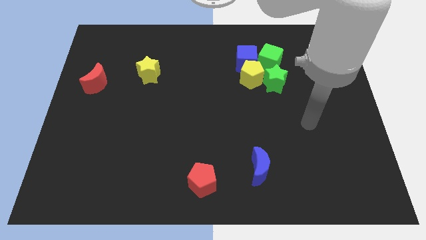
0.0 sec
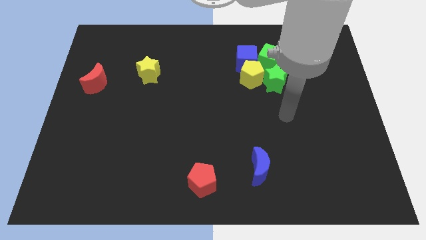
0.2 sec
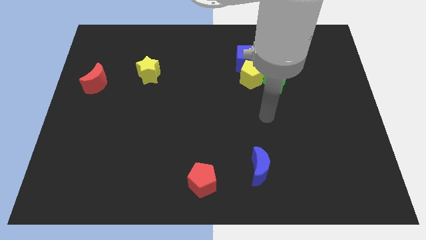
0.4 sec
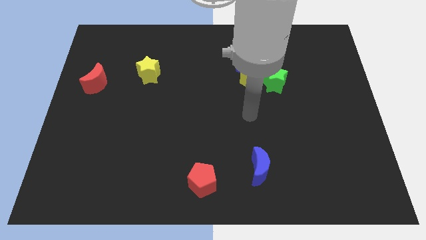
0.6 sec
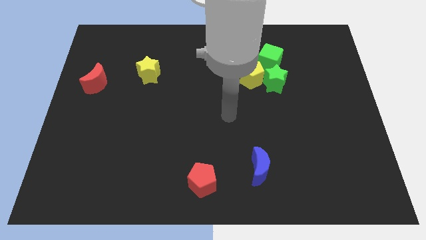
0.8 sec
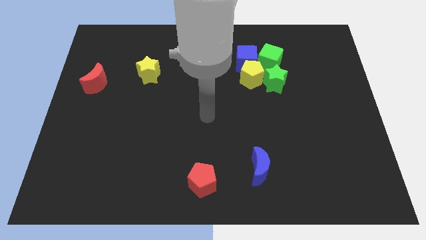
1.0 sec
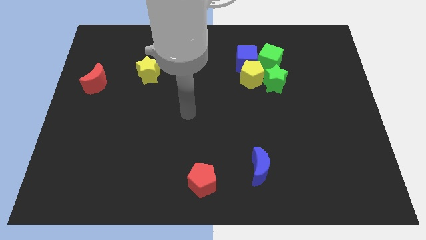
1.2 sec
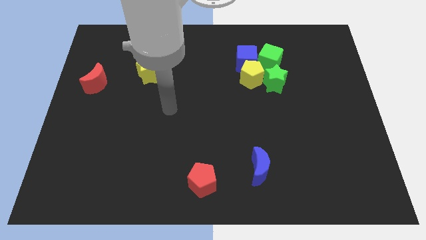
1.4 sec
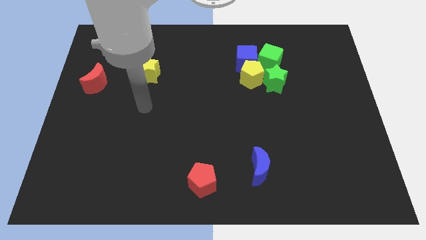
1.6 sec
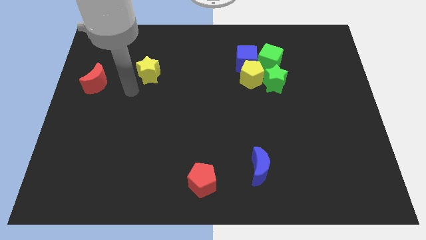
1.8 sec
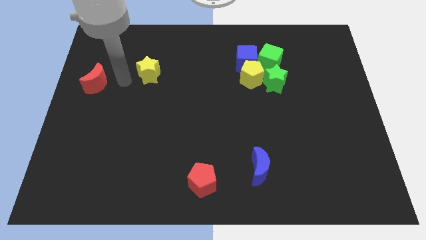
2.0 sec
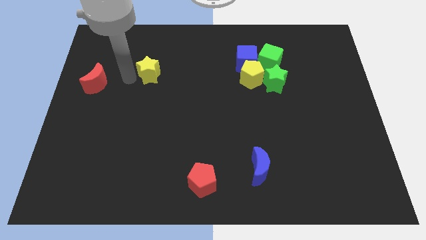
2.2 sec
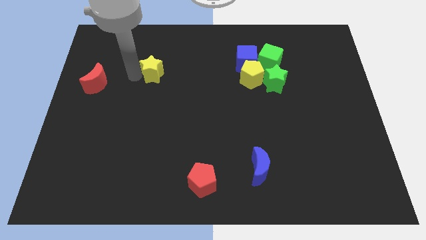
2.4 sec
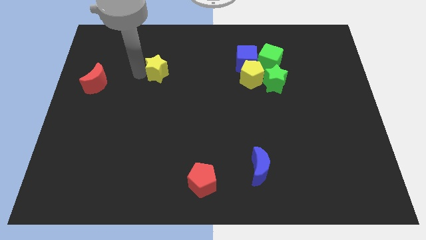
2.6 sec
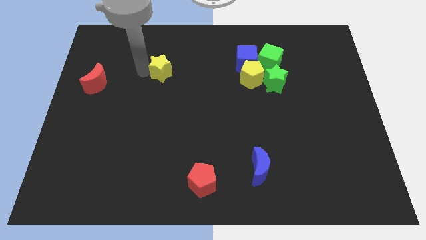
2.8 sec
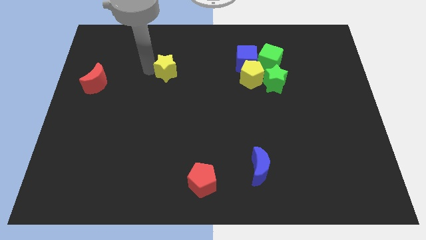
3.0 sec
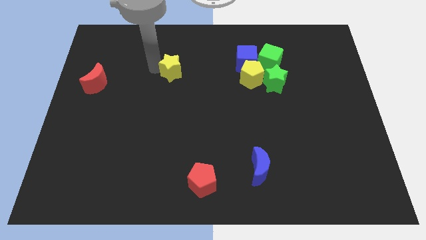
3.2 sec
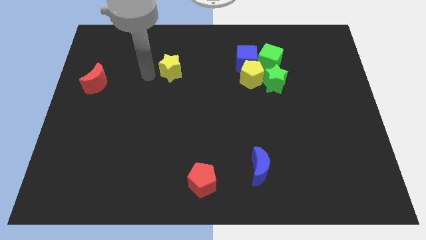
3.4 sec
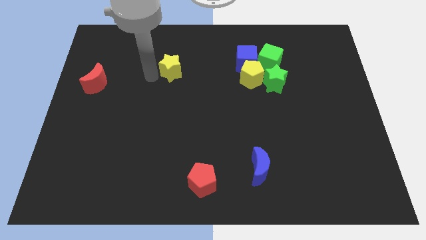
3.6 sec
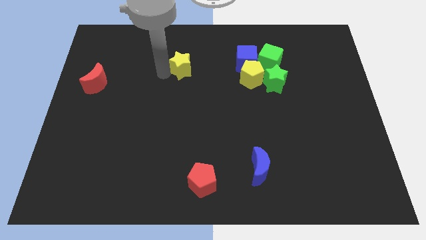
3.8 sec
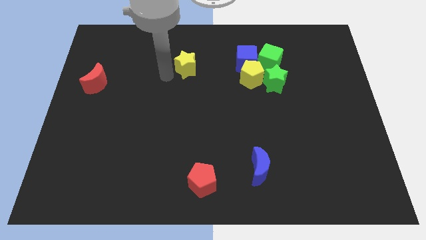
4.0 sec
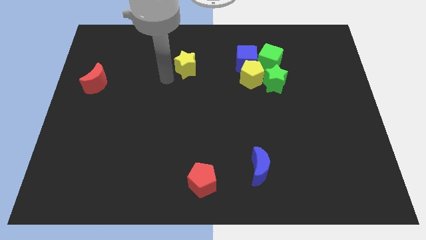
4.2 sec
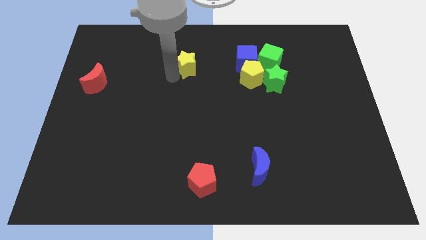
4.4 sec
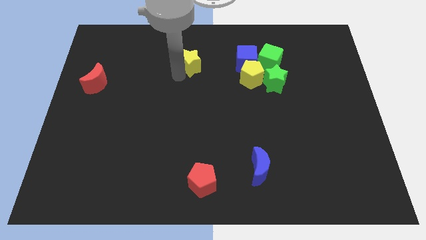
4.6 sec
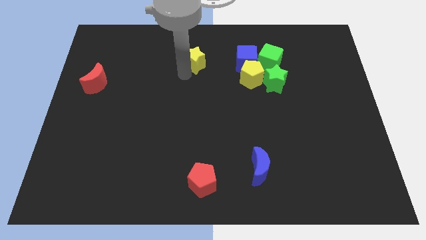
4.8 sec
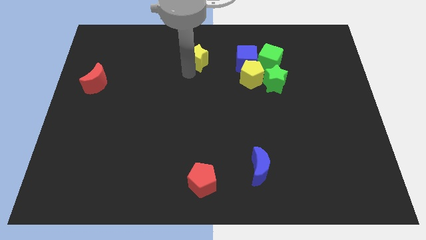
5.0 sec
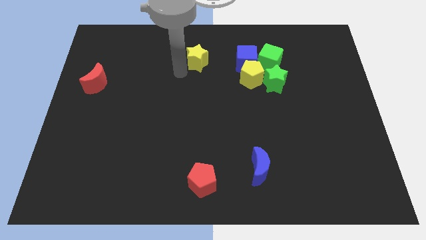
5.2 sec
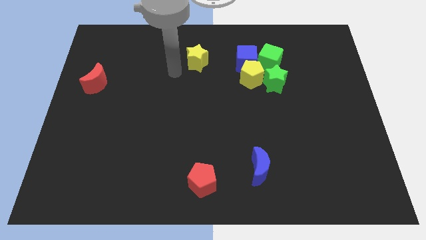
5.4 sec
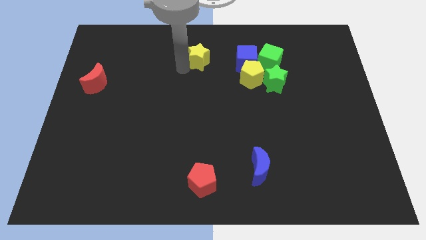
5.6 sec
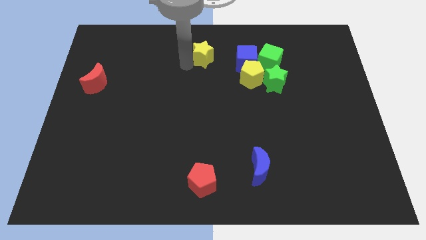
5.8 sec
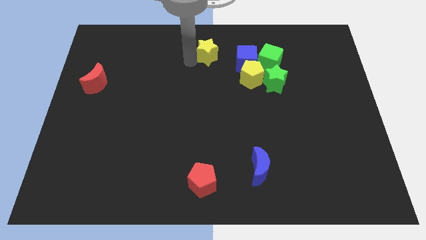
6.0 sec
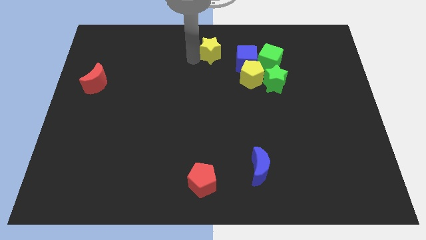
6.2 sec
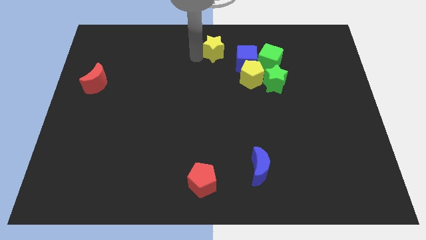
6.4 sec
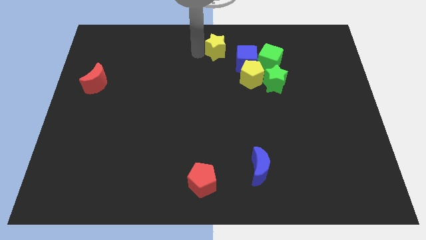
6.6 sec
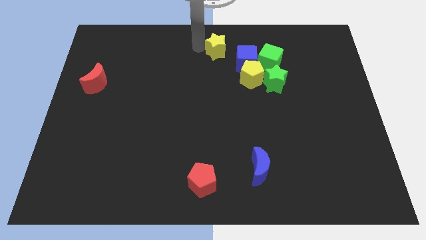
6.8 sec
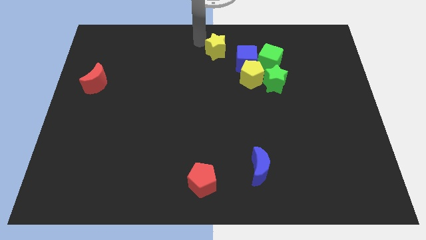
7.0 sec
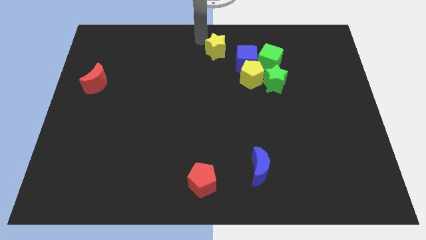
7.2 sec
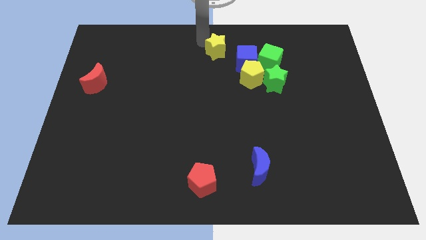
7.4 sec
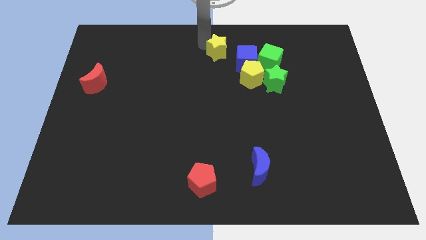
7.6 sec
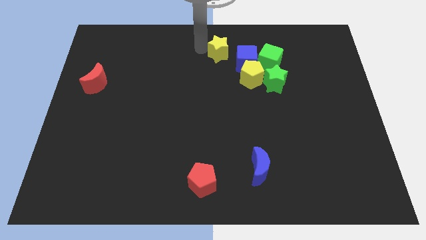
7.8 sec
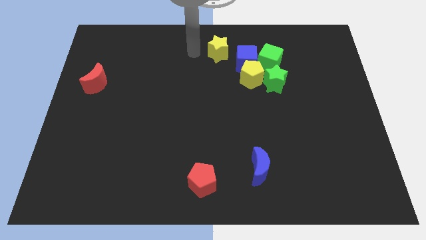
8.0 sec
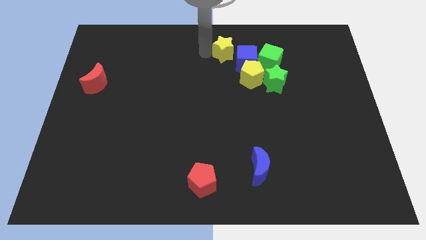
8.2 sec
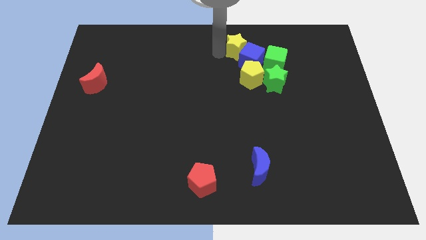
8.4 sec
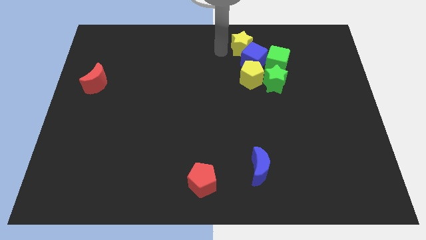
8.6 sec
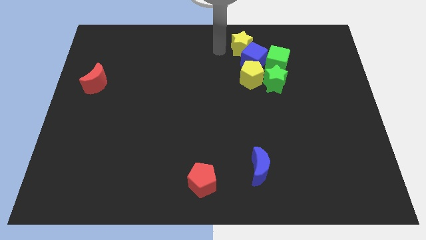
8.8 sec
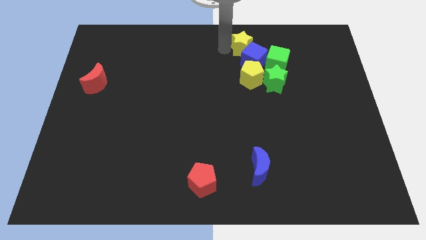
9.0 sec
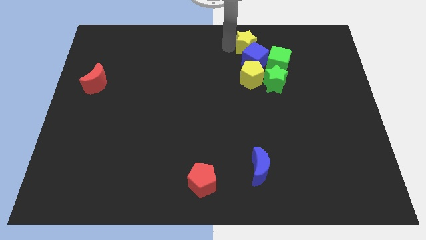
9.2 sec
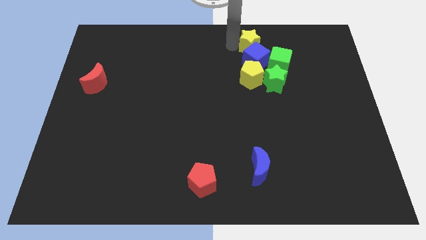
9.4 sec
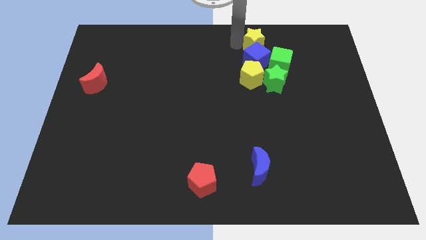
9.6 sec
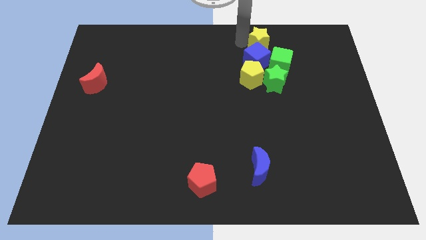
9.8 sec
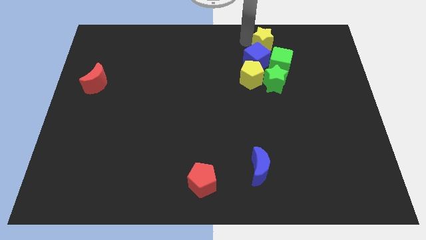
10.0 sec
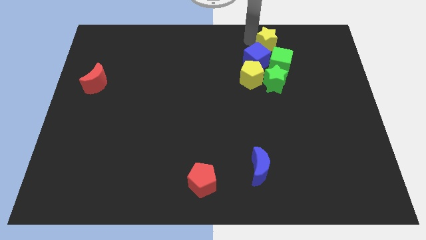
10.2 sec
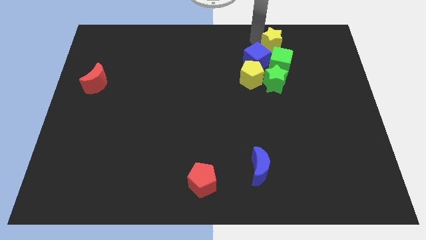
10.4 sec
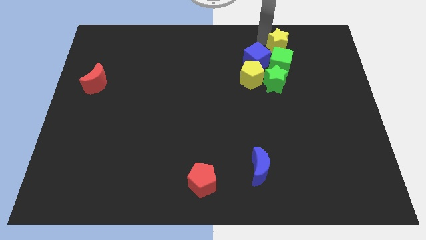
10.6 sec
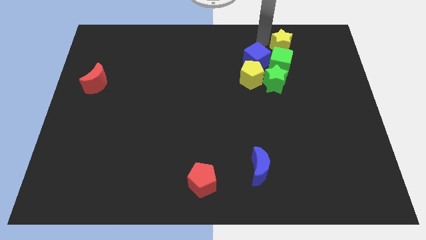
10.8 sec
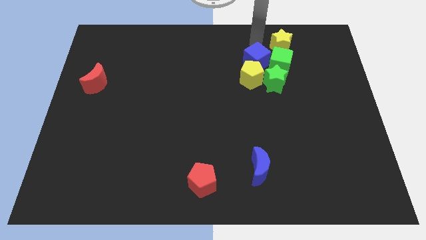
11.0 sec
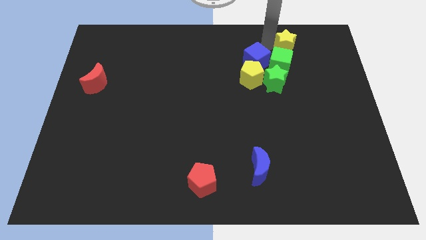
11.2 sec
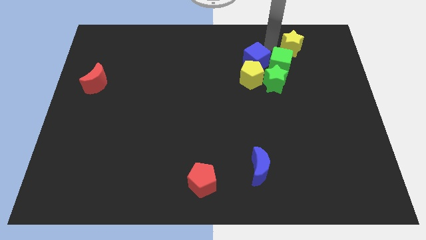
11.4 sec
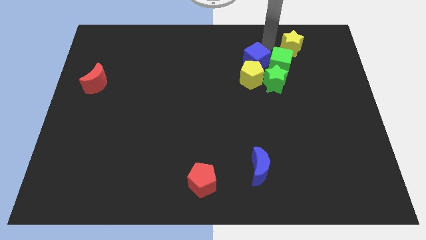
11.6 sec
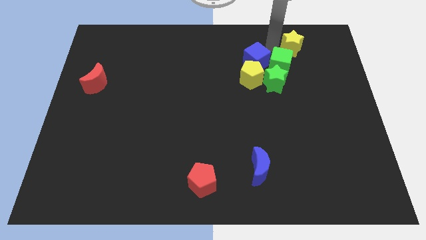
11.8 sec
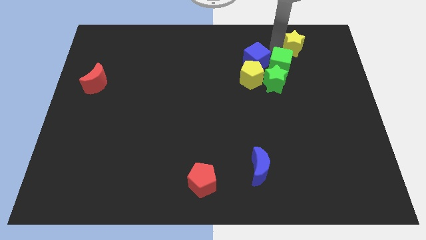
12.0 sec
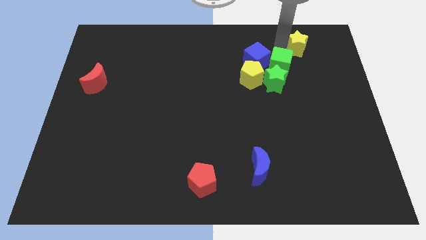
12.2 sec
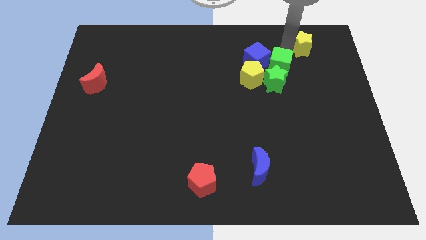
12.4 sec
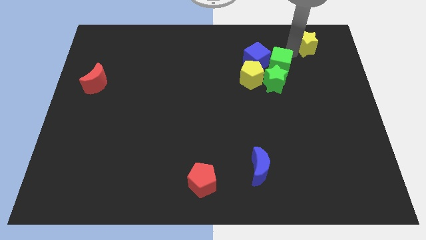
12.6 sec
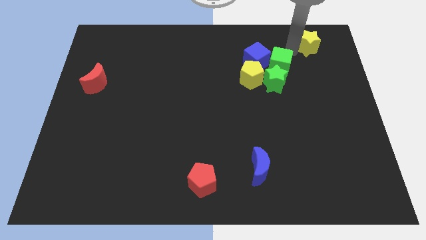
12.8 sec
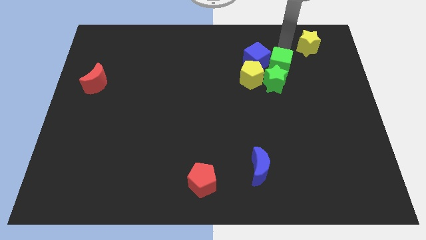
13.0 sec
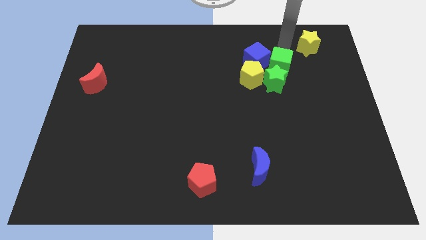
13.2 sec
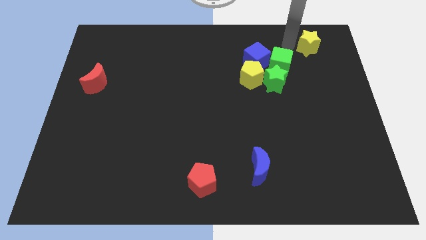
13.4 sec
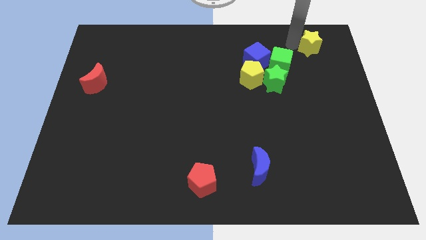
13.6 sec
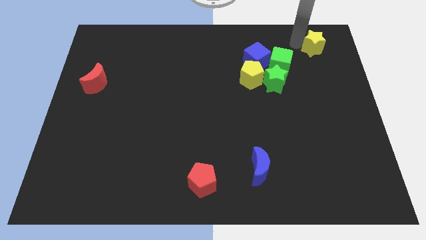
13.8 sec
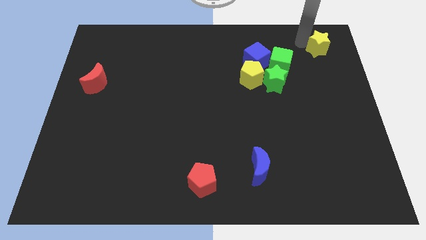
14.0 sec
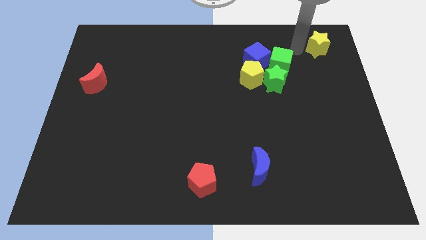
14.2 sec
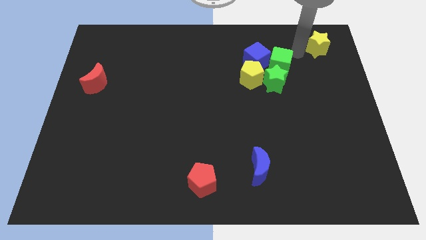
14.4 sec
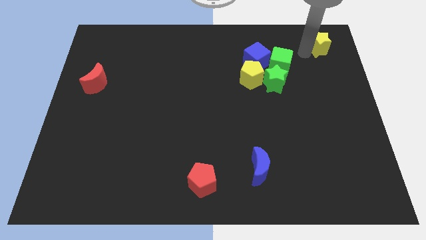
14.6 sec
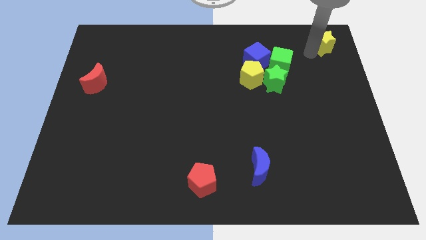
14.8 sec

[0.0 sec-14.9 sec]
push the yellow star to the top right
